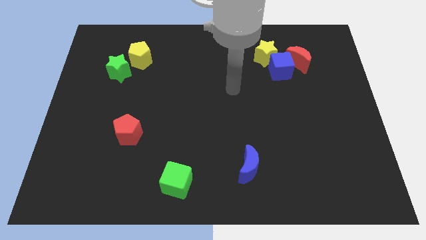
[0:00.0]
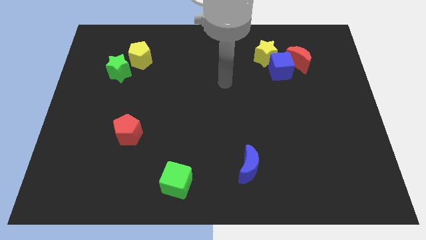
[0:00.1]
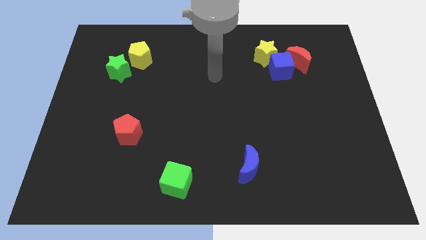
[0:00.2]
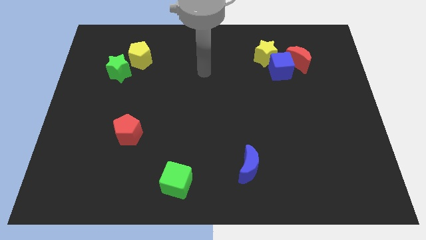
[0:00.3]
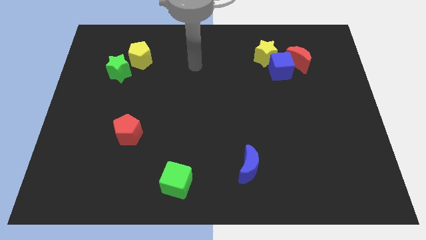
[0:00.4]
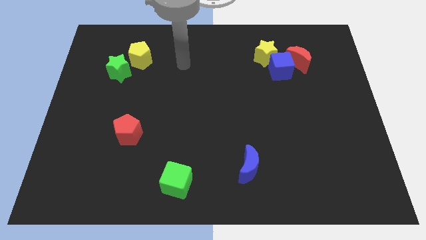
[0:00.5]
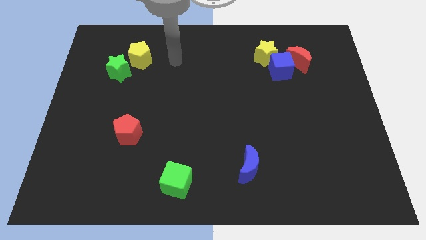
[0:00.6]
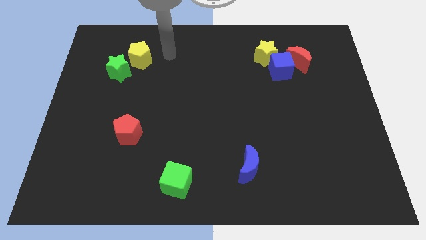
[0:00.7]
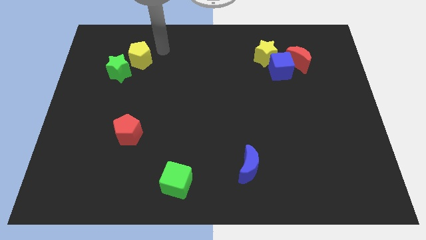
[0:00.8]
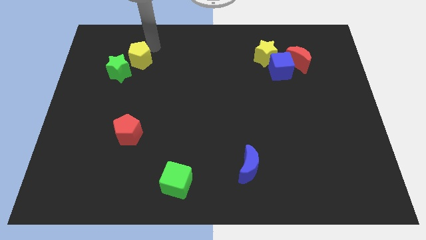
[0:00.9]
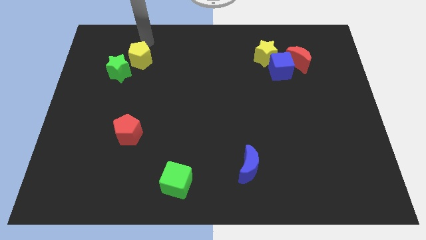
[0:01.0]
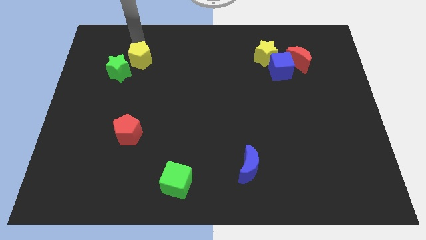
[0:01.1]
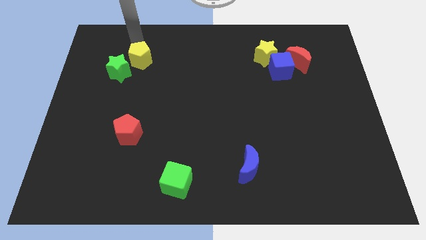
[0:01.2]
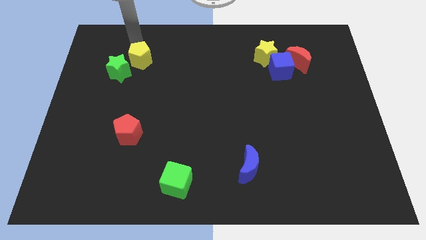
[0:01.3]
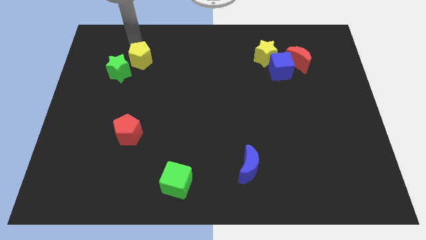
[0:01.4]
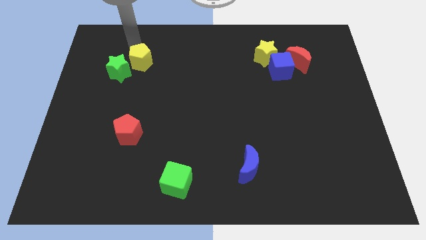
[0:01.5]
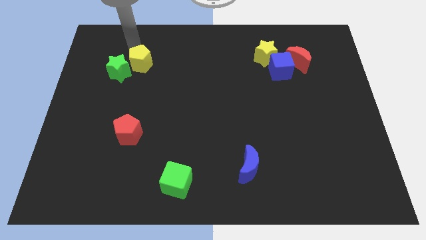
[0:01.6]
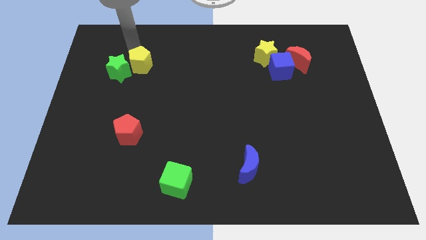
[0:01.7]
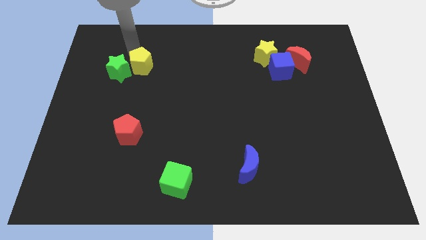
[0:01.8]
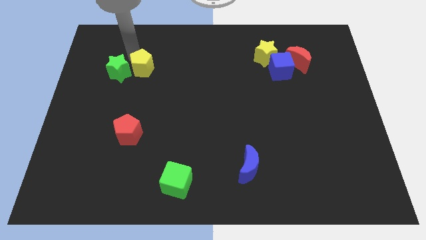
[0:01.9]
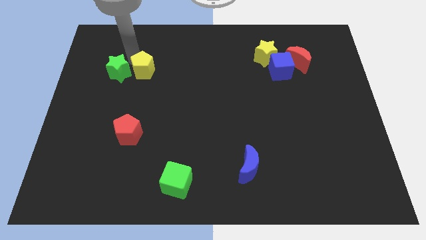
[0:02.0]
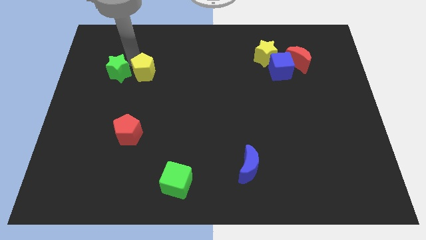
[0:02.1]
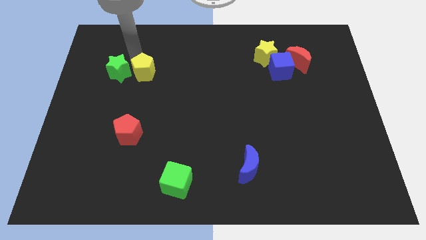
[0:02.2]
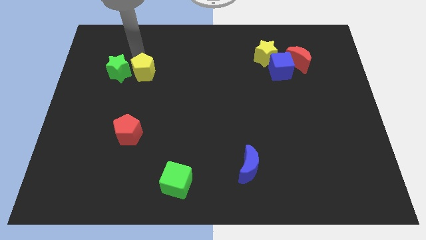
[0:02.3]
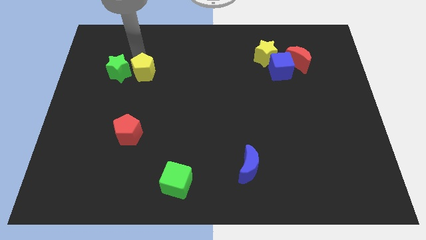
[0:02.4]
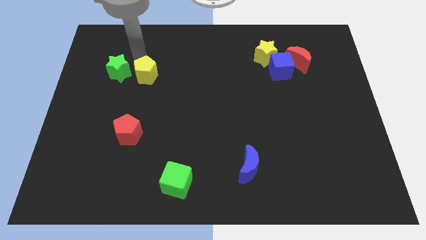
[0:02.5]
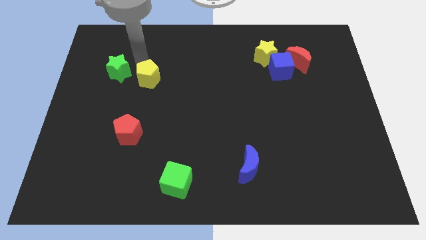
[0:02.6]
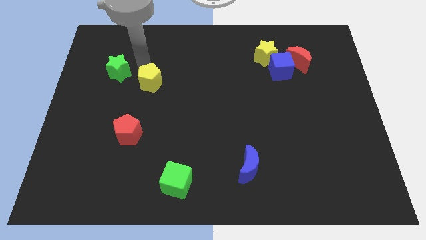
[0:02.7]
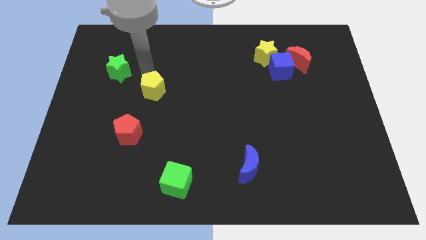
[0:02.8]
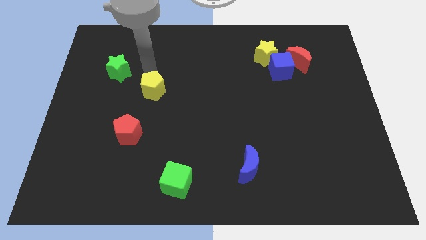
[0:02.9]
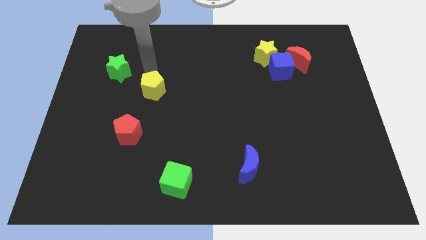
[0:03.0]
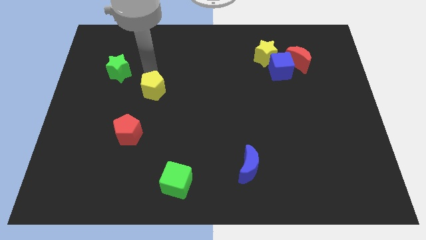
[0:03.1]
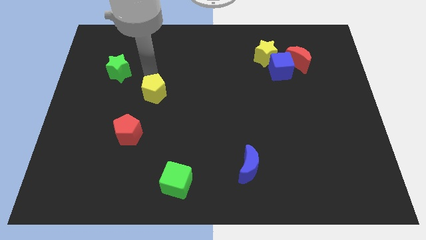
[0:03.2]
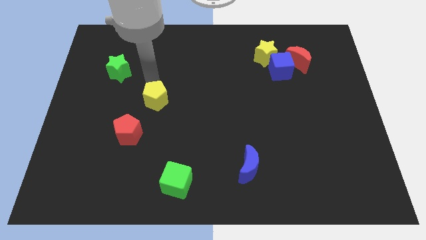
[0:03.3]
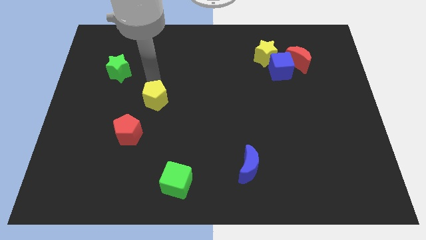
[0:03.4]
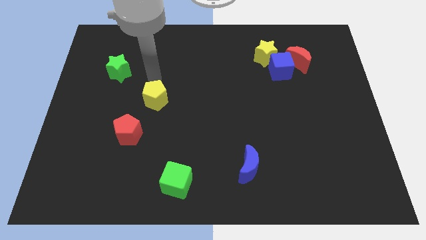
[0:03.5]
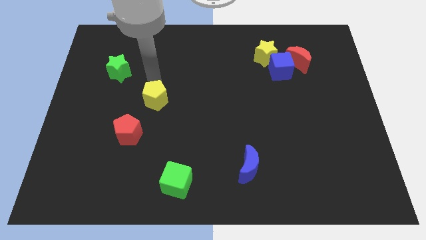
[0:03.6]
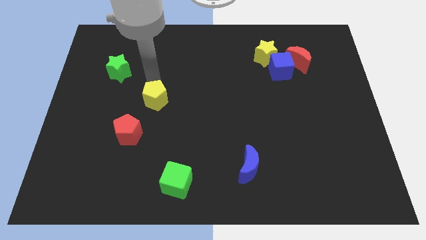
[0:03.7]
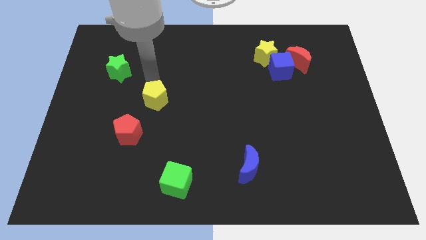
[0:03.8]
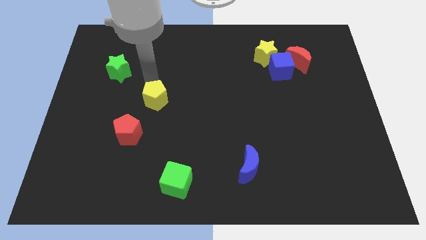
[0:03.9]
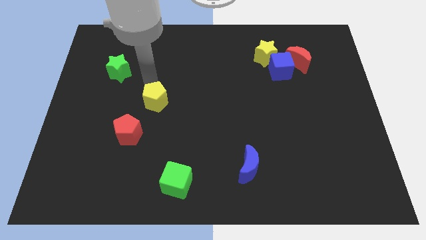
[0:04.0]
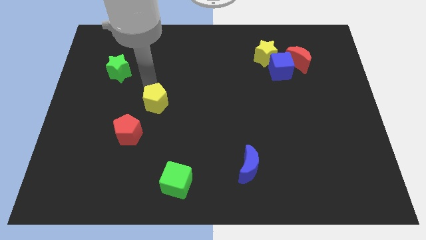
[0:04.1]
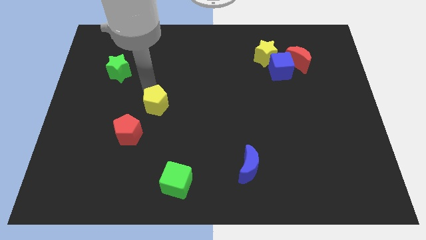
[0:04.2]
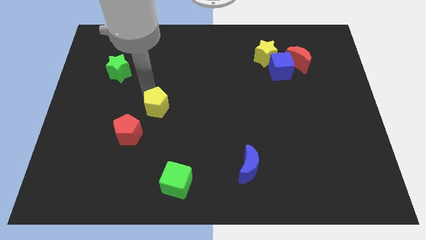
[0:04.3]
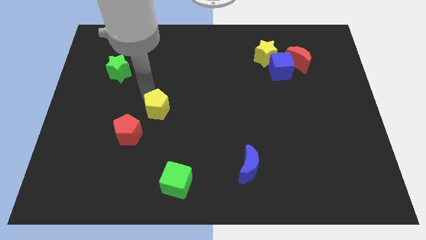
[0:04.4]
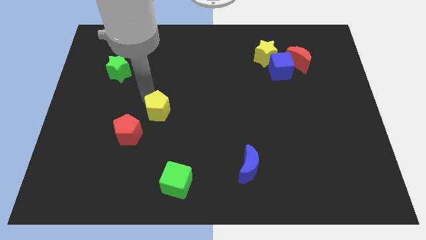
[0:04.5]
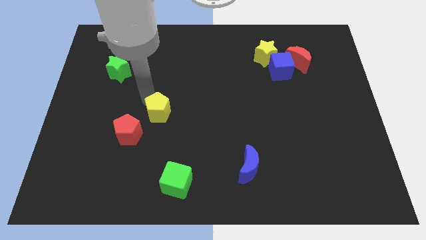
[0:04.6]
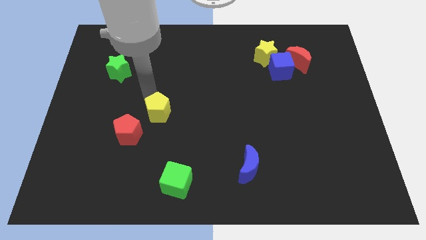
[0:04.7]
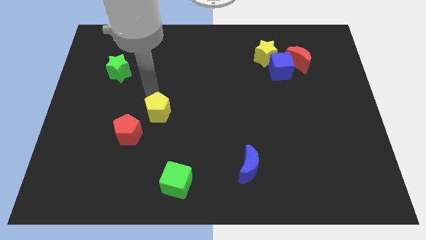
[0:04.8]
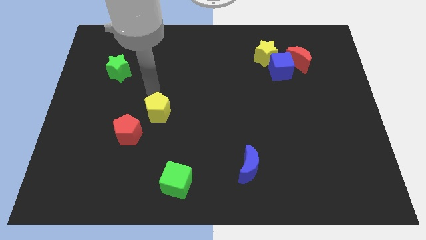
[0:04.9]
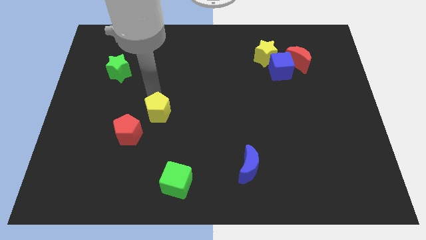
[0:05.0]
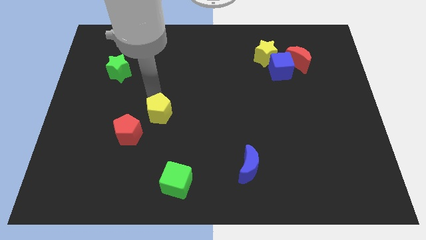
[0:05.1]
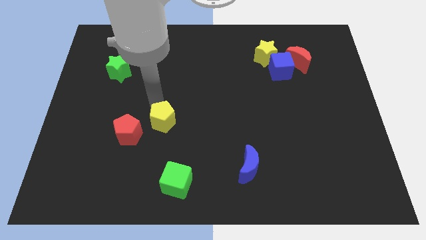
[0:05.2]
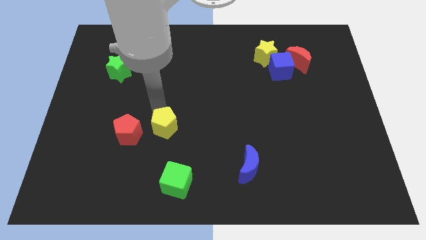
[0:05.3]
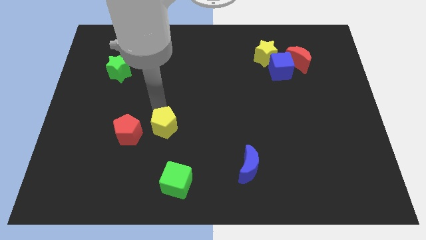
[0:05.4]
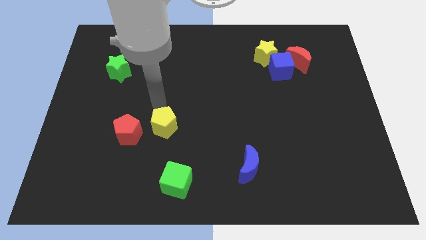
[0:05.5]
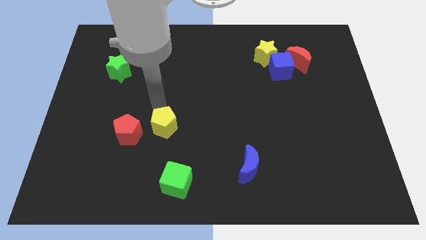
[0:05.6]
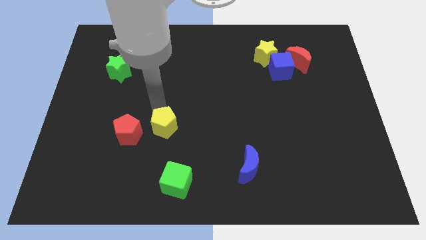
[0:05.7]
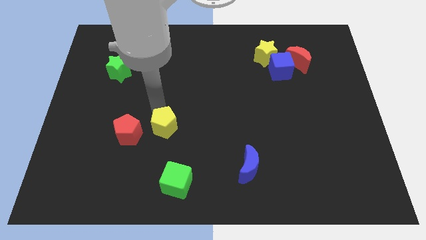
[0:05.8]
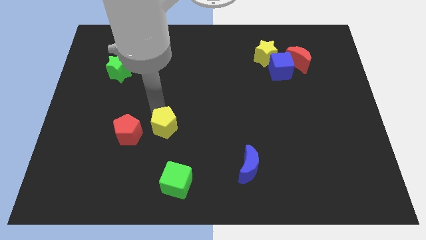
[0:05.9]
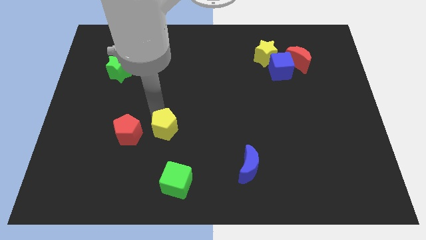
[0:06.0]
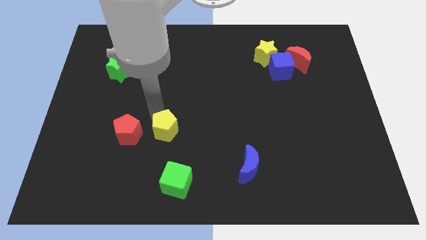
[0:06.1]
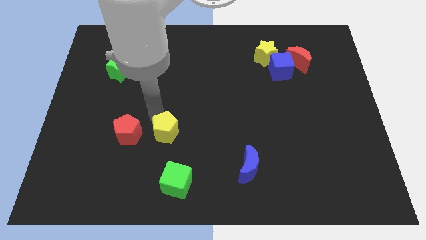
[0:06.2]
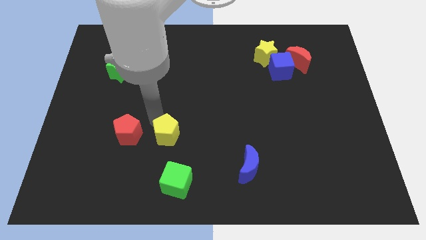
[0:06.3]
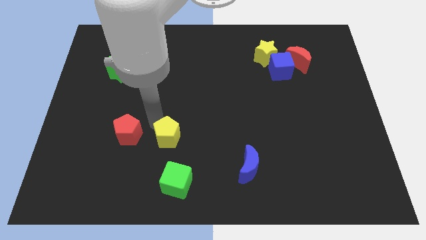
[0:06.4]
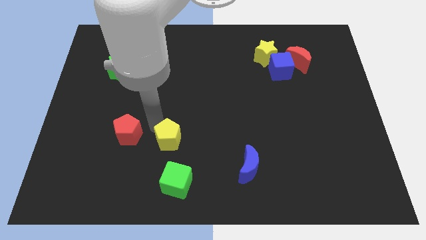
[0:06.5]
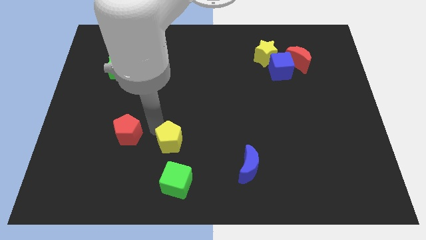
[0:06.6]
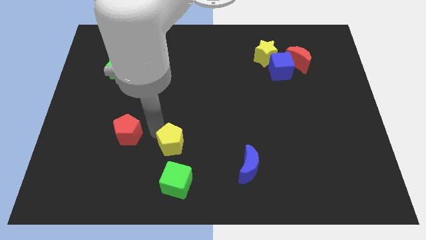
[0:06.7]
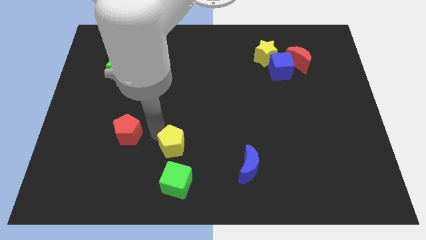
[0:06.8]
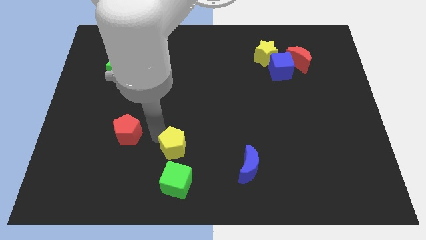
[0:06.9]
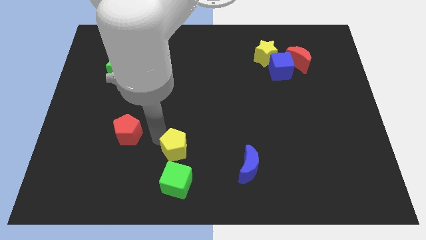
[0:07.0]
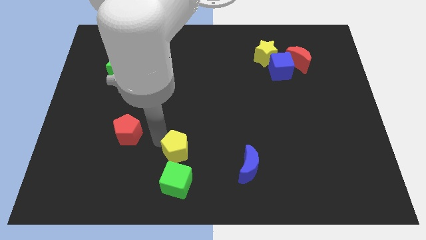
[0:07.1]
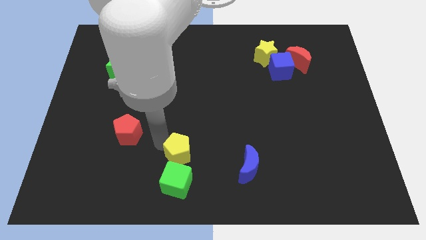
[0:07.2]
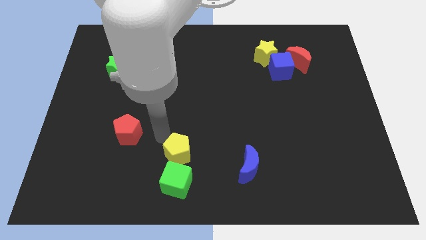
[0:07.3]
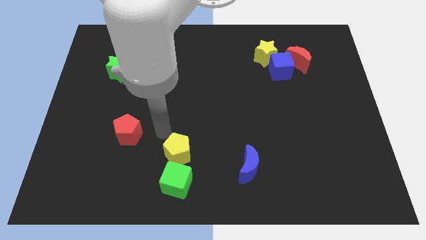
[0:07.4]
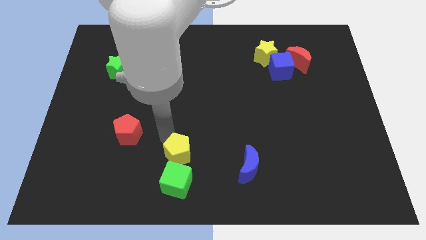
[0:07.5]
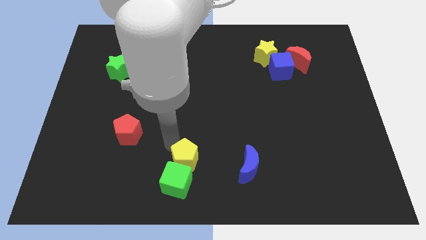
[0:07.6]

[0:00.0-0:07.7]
move the yellow pentagon to the bottom
